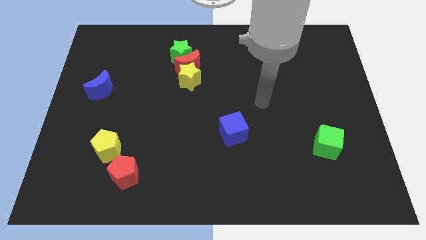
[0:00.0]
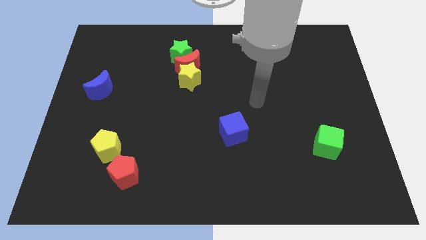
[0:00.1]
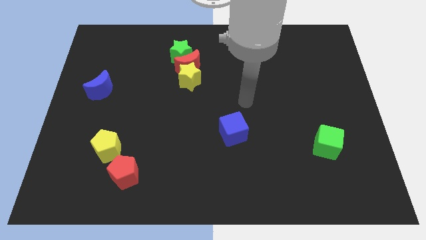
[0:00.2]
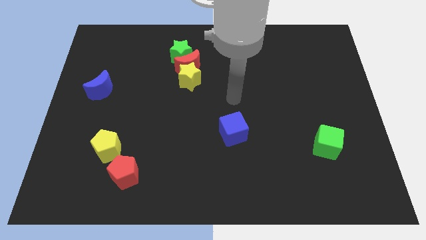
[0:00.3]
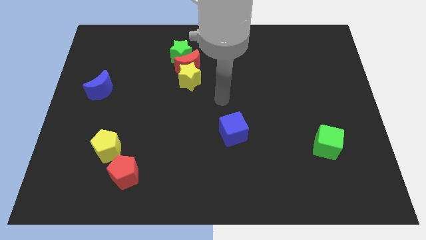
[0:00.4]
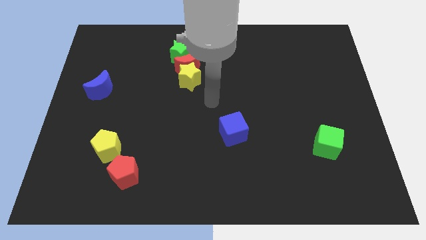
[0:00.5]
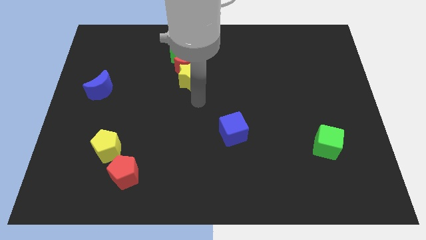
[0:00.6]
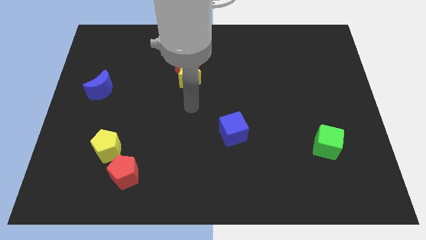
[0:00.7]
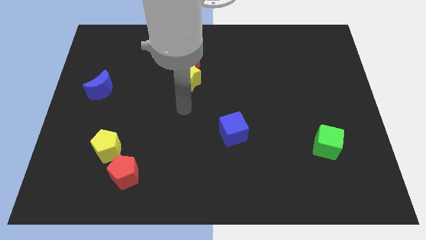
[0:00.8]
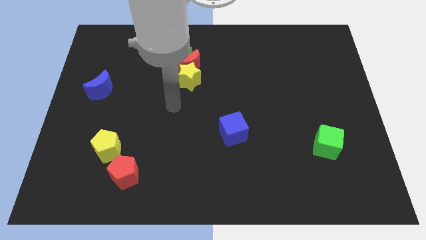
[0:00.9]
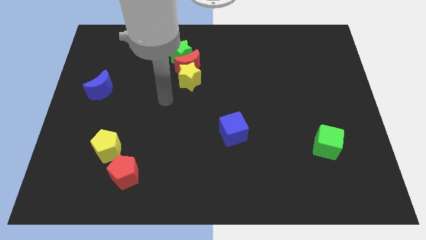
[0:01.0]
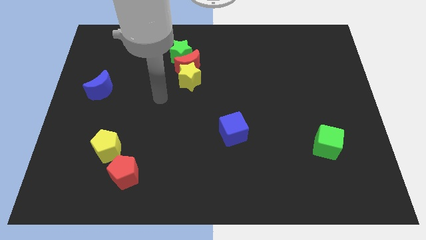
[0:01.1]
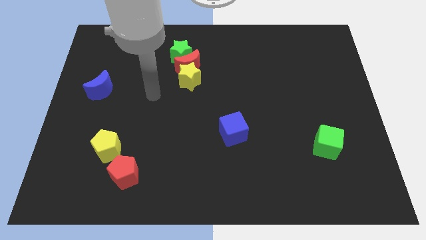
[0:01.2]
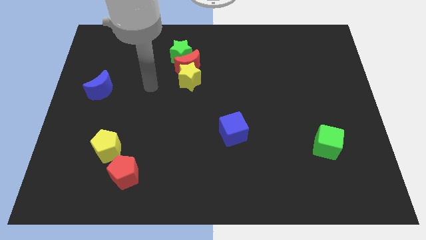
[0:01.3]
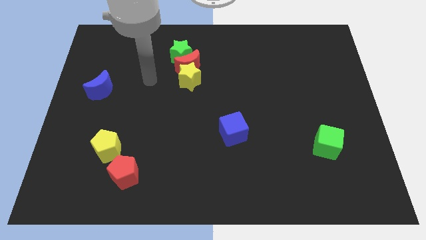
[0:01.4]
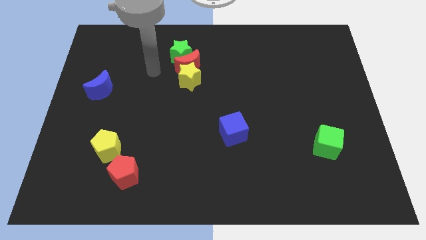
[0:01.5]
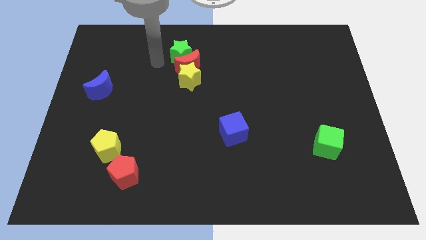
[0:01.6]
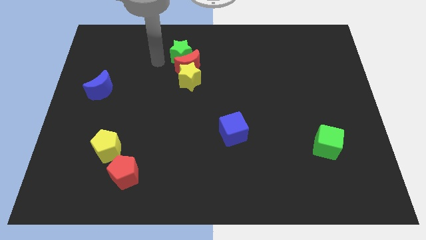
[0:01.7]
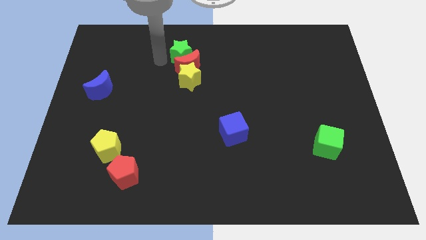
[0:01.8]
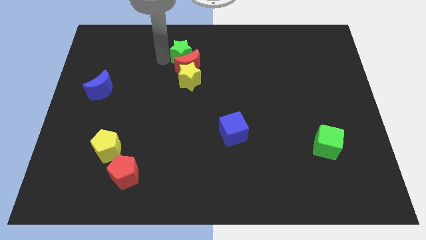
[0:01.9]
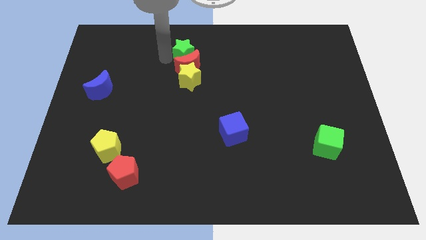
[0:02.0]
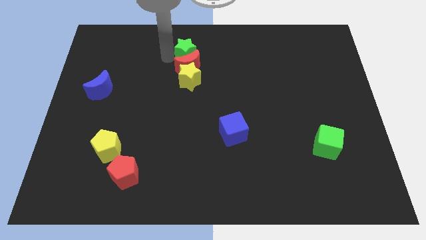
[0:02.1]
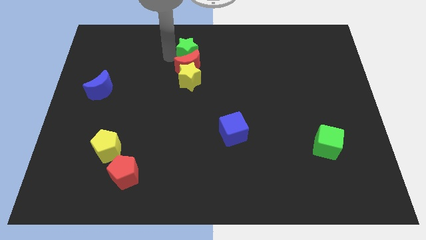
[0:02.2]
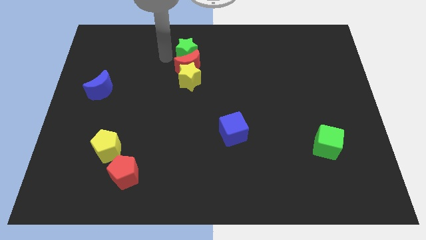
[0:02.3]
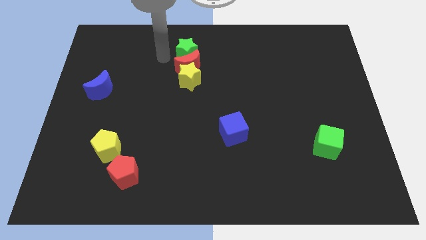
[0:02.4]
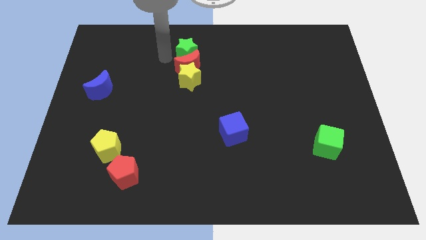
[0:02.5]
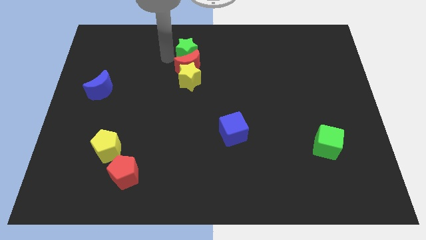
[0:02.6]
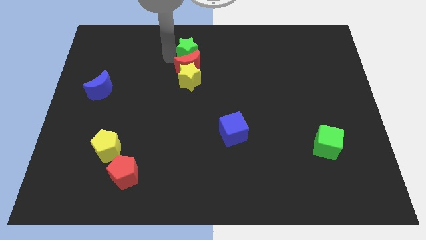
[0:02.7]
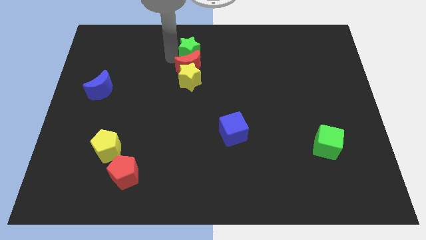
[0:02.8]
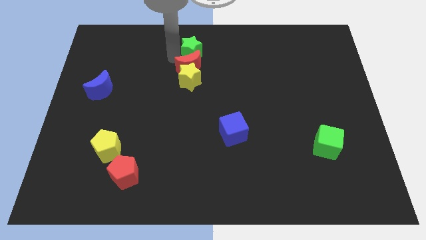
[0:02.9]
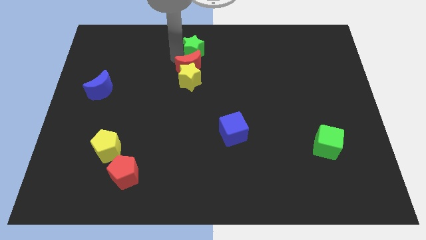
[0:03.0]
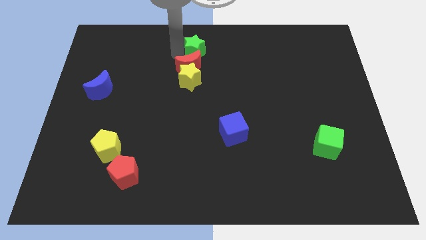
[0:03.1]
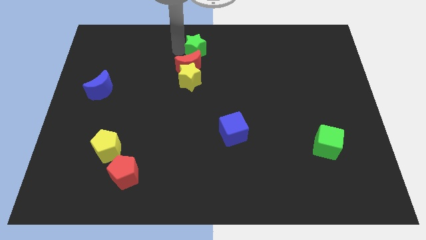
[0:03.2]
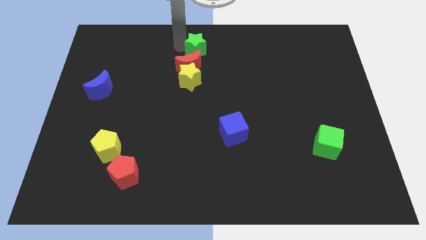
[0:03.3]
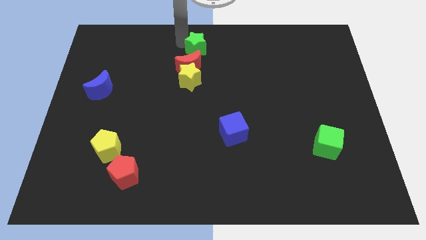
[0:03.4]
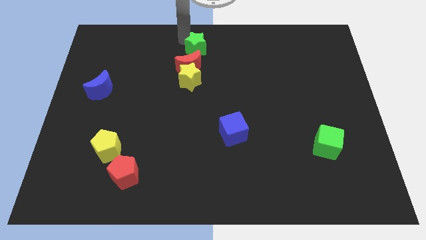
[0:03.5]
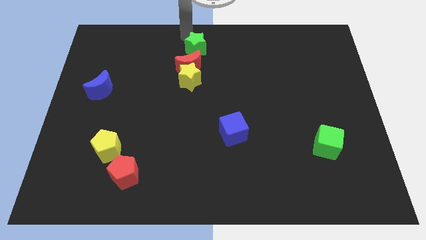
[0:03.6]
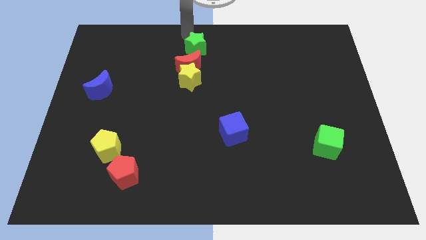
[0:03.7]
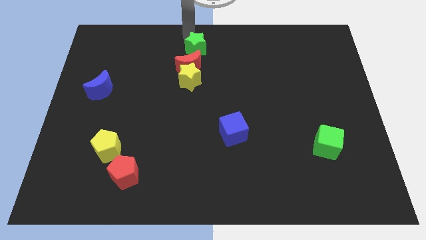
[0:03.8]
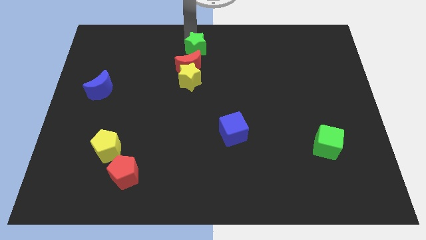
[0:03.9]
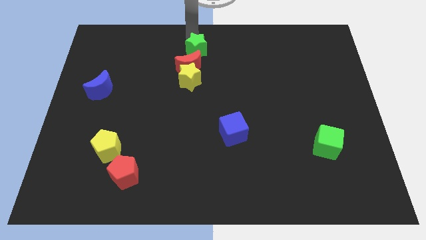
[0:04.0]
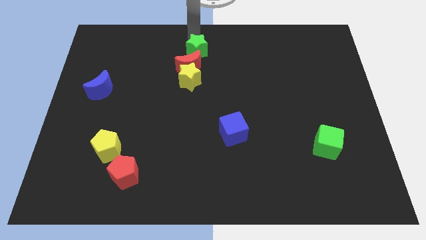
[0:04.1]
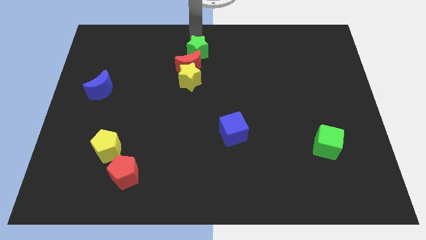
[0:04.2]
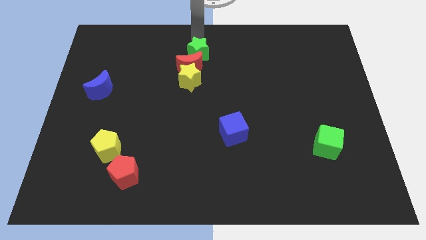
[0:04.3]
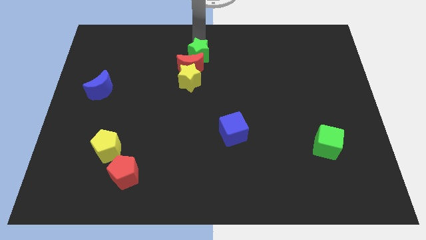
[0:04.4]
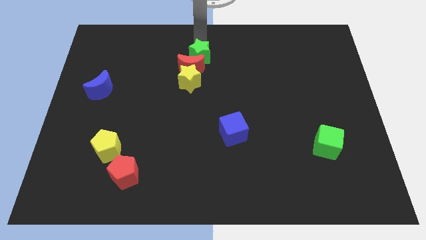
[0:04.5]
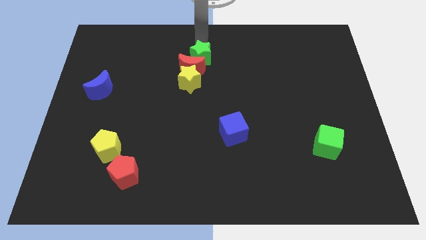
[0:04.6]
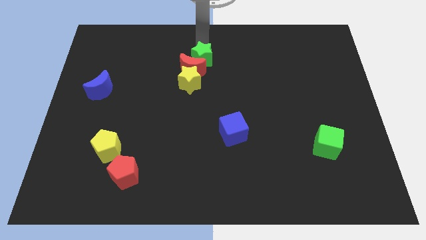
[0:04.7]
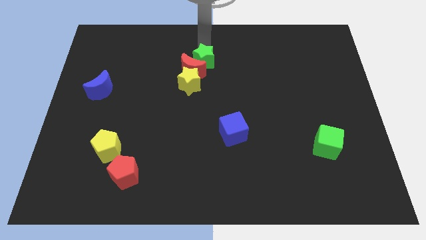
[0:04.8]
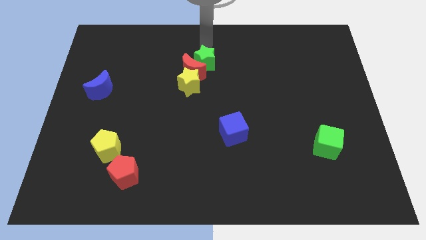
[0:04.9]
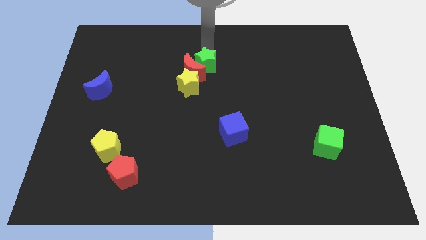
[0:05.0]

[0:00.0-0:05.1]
put the green star to the middle of the board

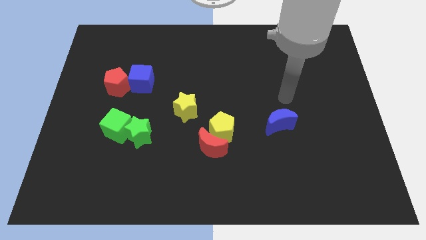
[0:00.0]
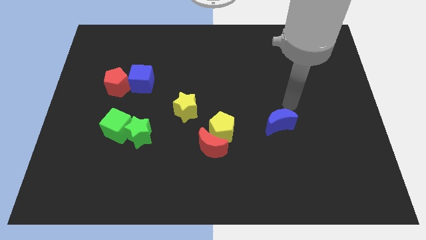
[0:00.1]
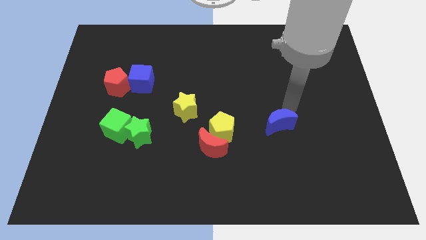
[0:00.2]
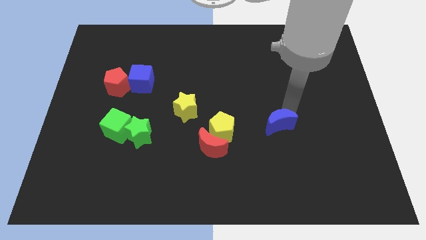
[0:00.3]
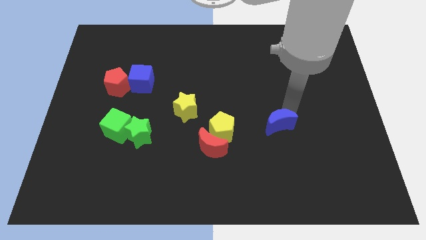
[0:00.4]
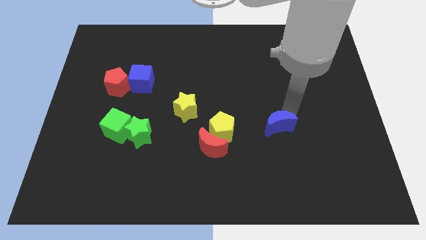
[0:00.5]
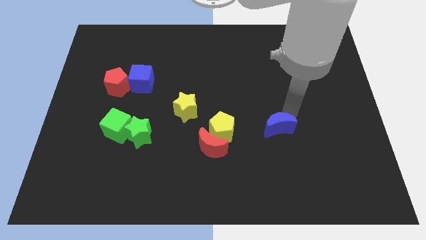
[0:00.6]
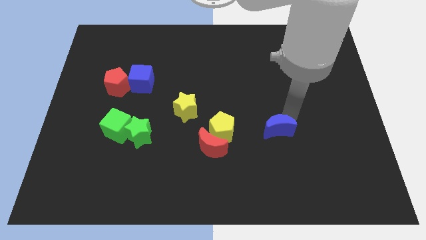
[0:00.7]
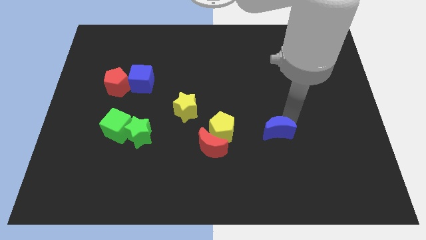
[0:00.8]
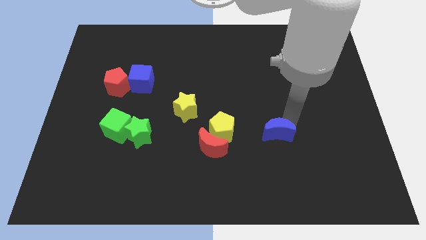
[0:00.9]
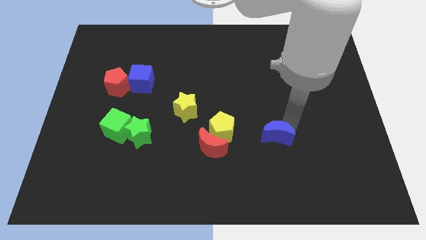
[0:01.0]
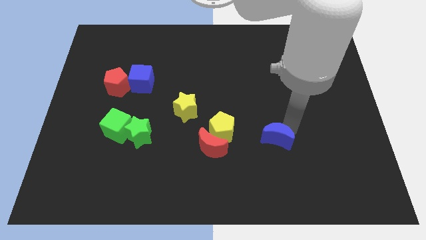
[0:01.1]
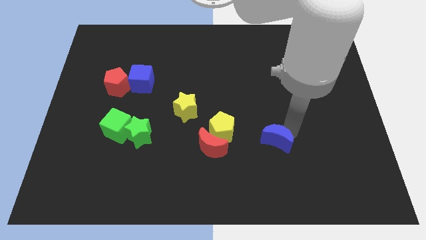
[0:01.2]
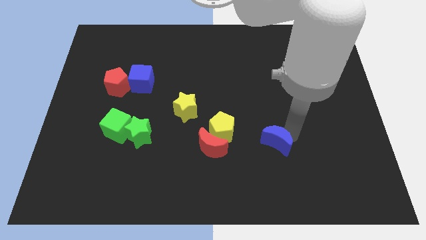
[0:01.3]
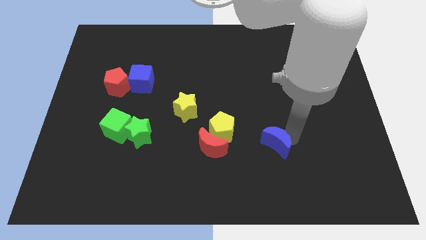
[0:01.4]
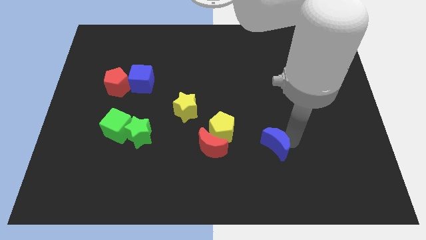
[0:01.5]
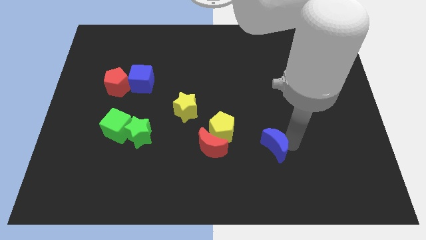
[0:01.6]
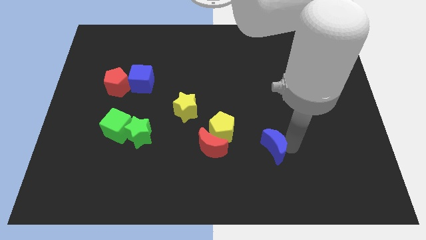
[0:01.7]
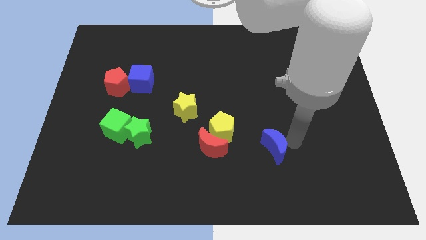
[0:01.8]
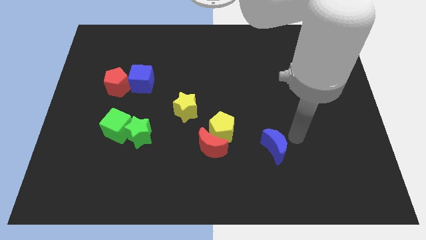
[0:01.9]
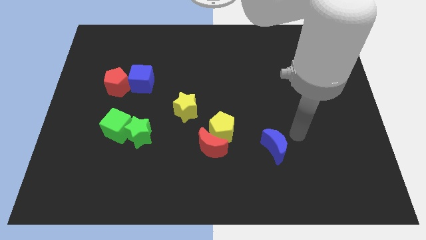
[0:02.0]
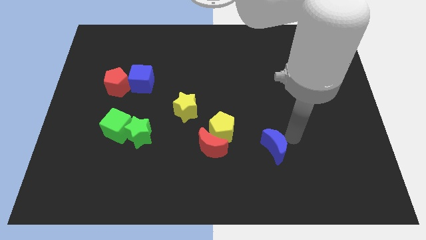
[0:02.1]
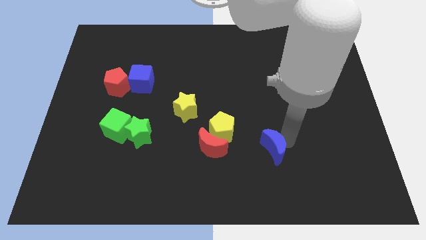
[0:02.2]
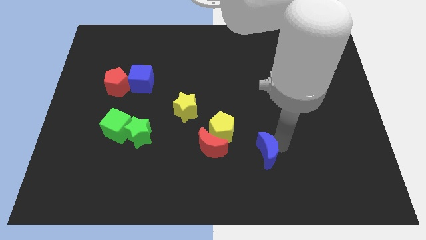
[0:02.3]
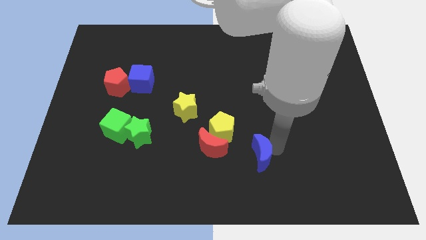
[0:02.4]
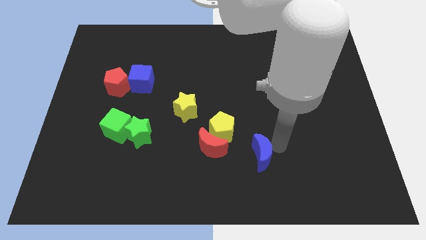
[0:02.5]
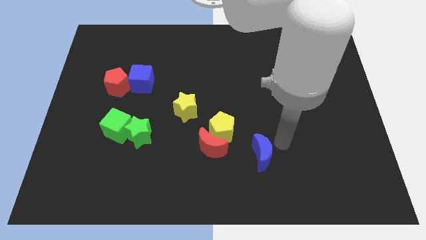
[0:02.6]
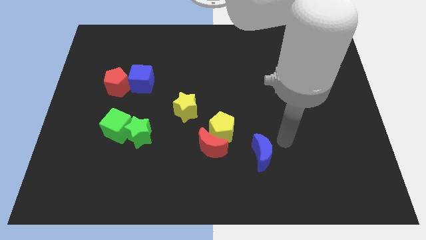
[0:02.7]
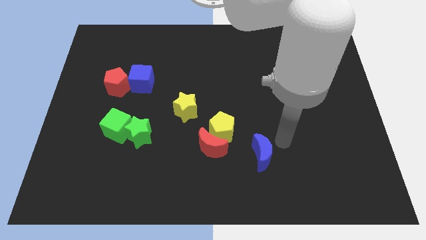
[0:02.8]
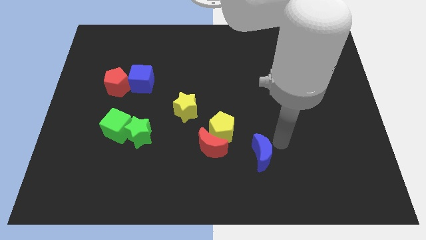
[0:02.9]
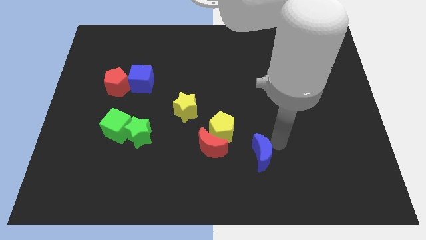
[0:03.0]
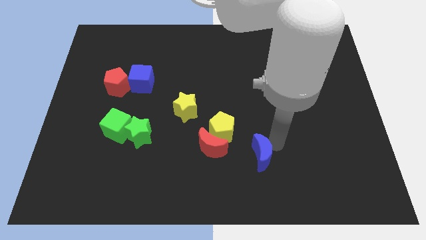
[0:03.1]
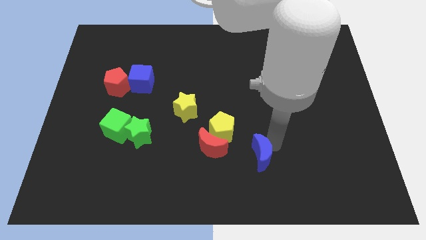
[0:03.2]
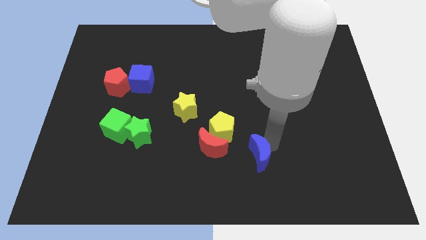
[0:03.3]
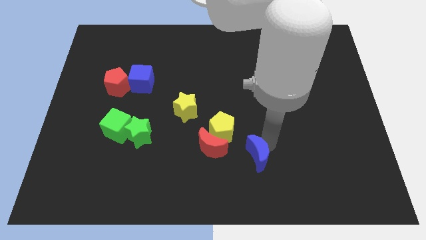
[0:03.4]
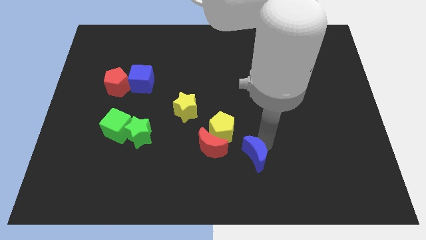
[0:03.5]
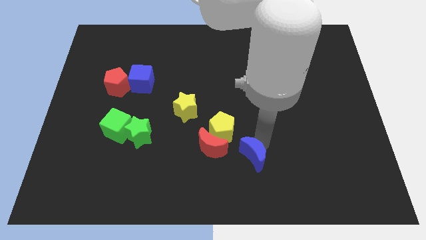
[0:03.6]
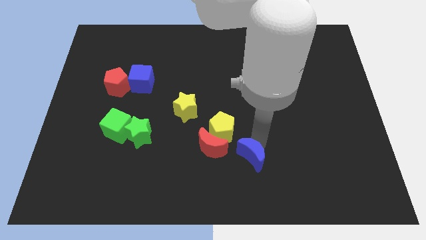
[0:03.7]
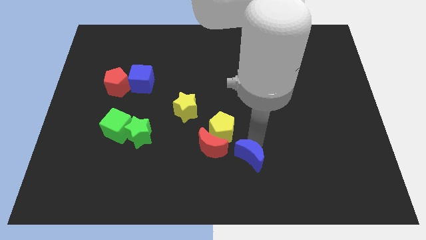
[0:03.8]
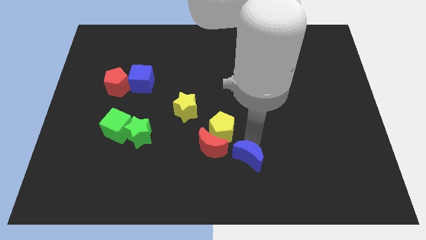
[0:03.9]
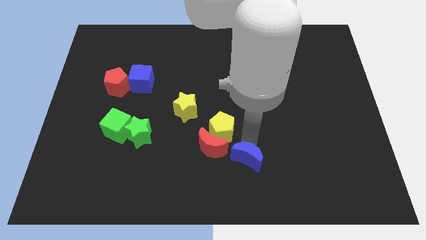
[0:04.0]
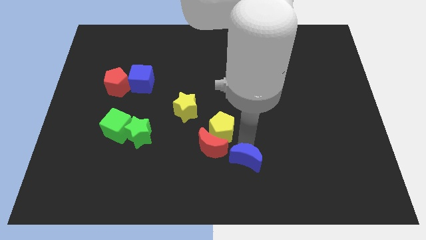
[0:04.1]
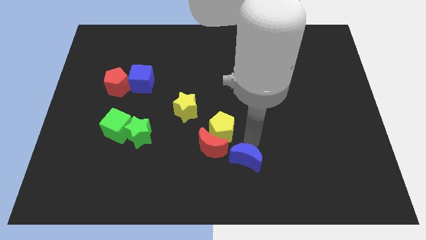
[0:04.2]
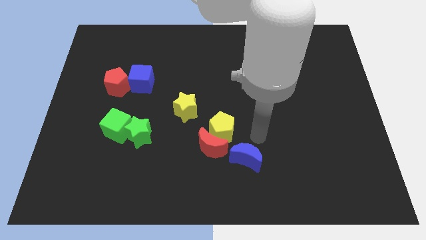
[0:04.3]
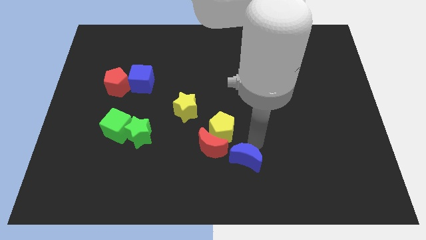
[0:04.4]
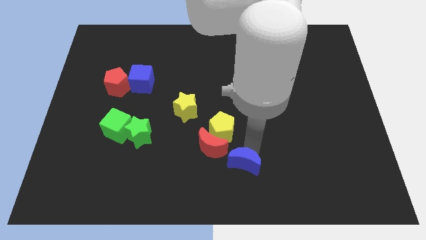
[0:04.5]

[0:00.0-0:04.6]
put the blue moon to the bottom side
